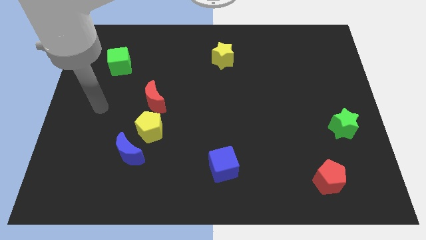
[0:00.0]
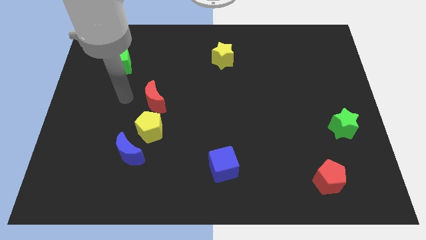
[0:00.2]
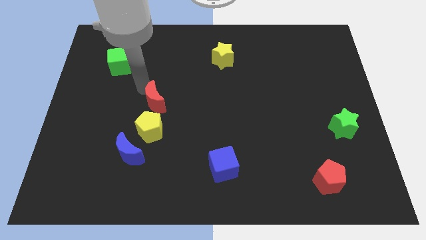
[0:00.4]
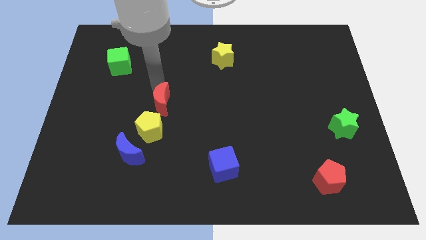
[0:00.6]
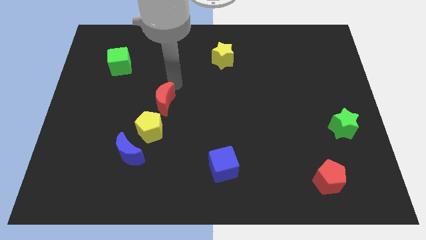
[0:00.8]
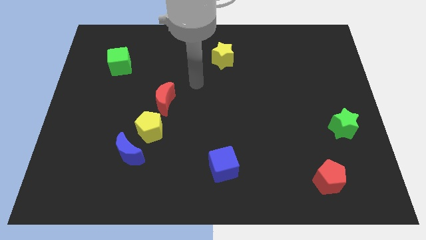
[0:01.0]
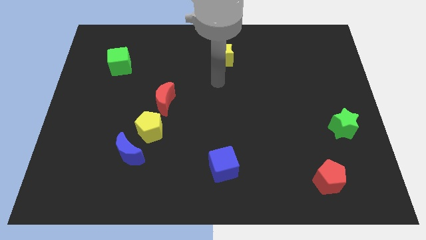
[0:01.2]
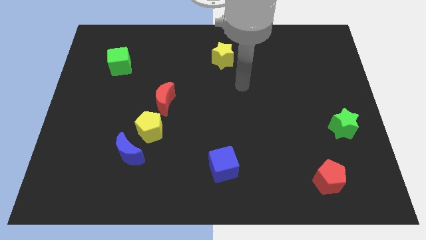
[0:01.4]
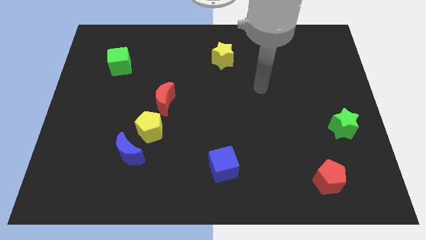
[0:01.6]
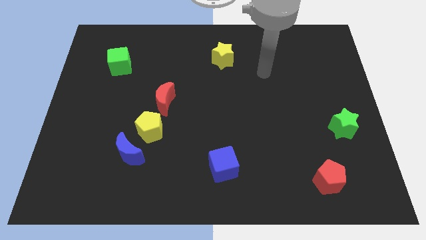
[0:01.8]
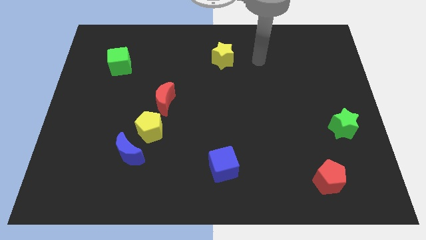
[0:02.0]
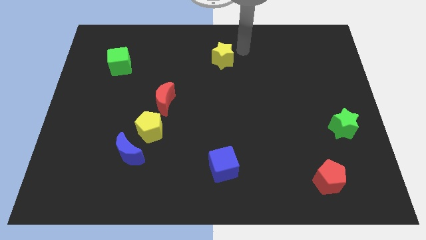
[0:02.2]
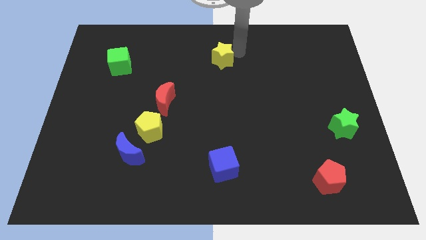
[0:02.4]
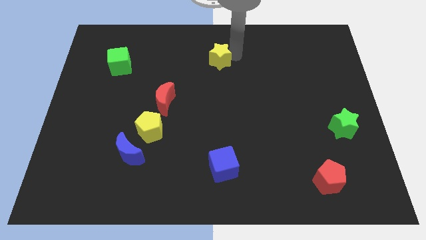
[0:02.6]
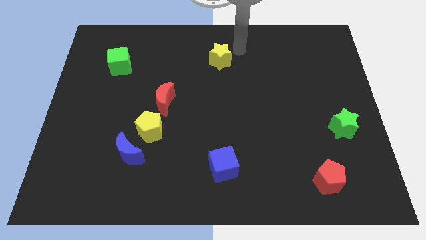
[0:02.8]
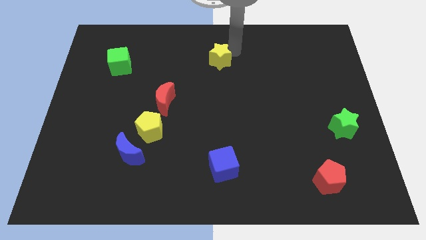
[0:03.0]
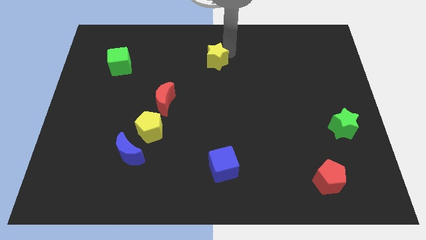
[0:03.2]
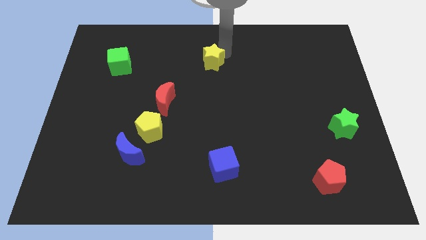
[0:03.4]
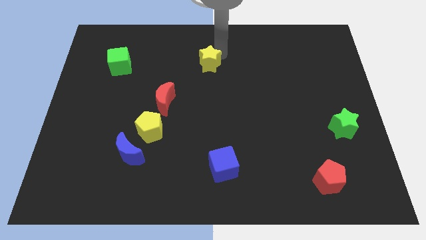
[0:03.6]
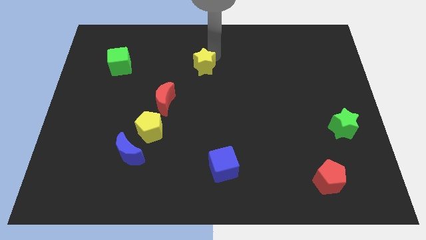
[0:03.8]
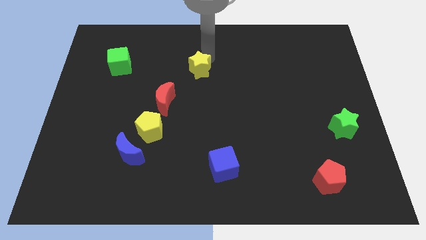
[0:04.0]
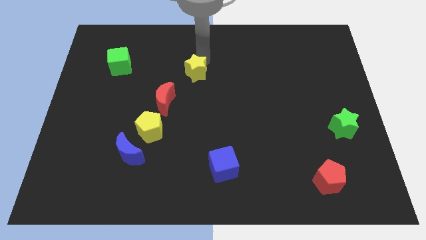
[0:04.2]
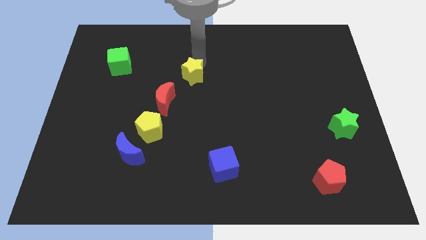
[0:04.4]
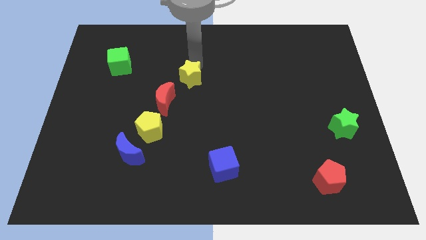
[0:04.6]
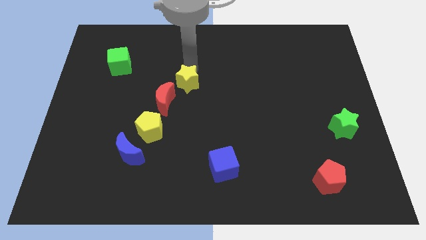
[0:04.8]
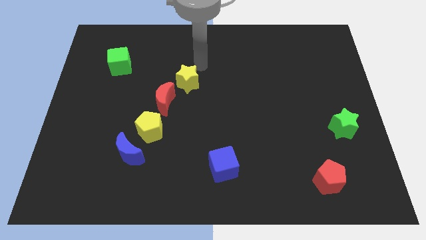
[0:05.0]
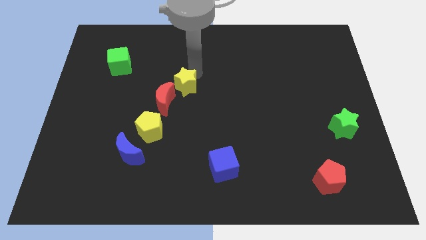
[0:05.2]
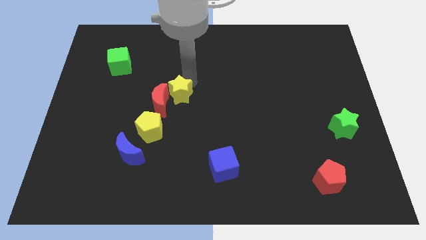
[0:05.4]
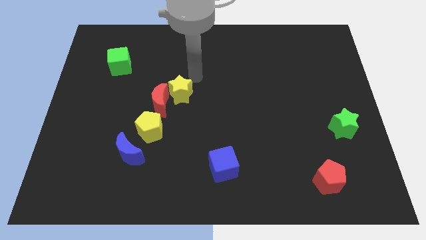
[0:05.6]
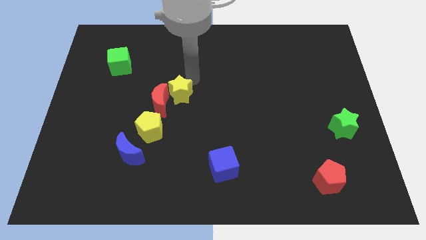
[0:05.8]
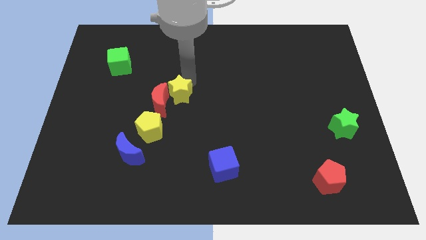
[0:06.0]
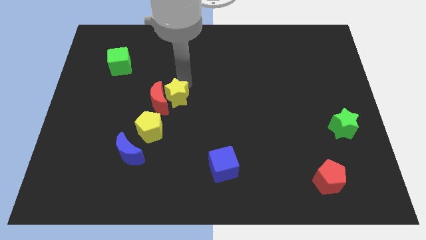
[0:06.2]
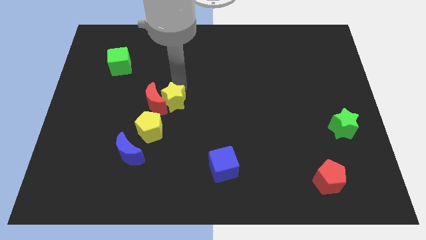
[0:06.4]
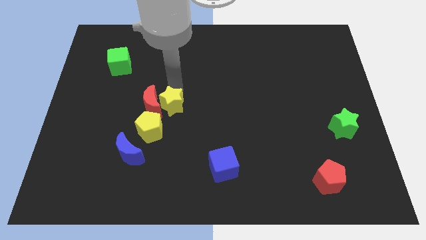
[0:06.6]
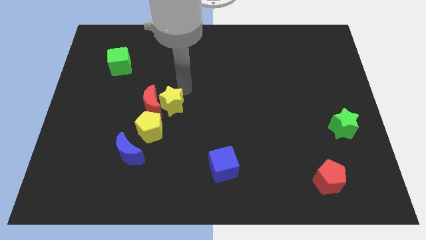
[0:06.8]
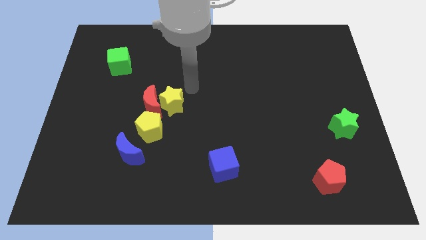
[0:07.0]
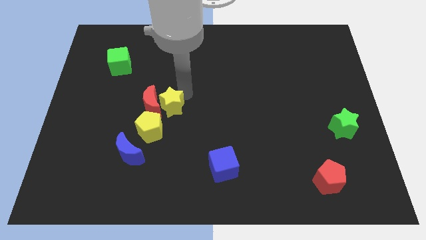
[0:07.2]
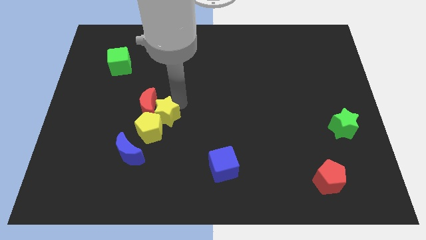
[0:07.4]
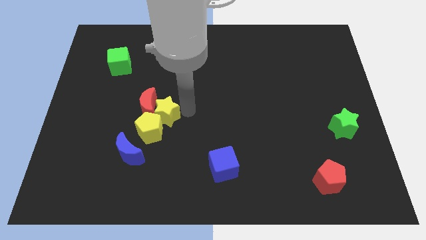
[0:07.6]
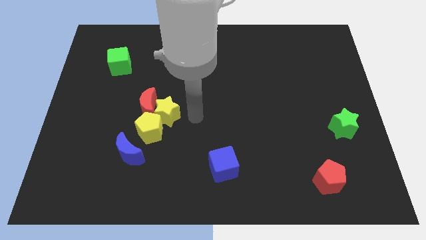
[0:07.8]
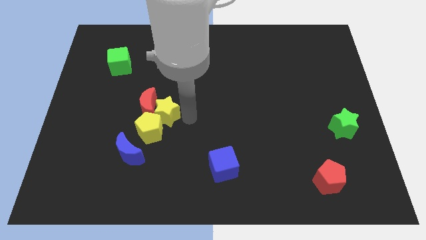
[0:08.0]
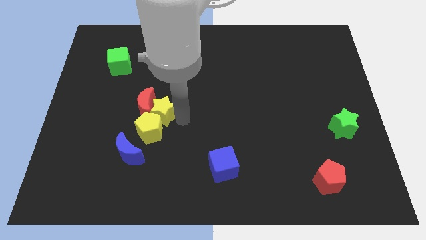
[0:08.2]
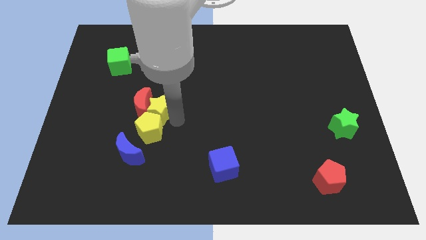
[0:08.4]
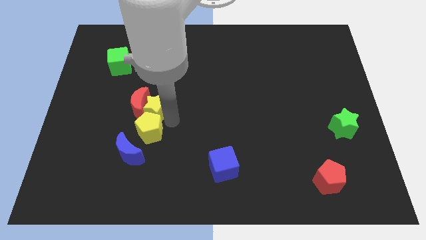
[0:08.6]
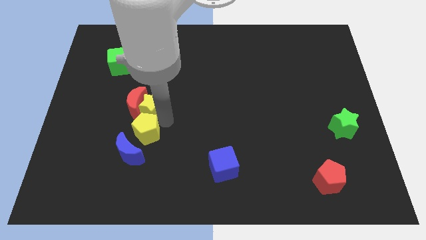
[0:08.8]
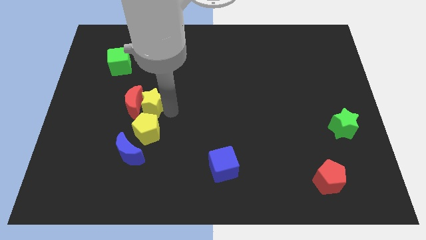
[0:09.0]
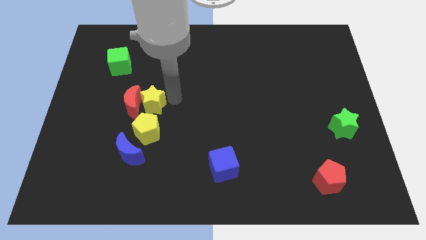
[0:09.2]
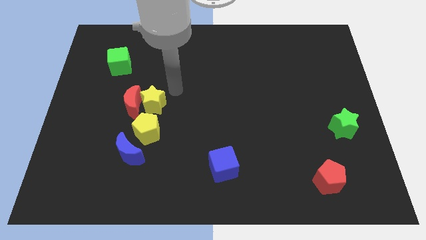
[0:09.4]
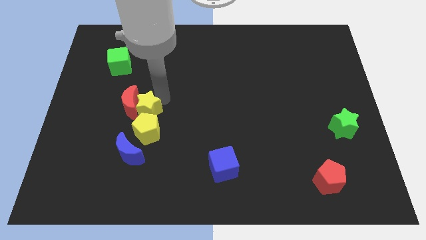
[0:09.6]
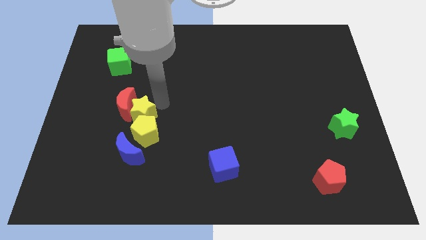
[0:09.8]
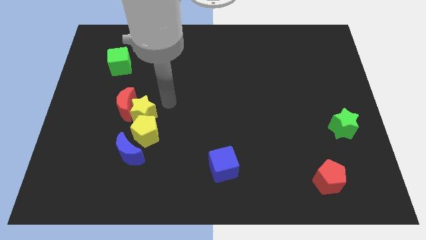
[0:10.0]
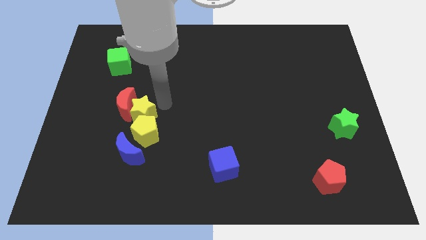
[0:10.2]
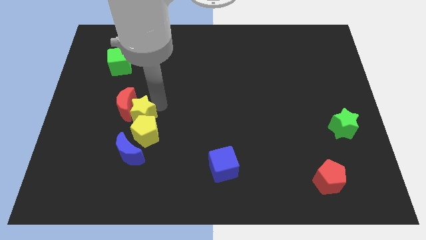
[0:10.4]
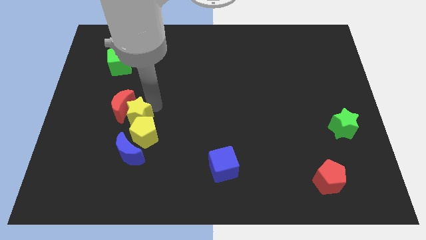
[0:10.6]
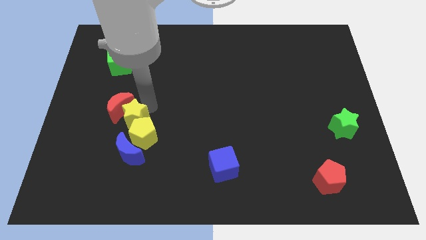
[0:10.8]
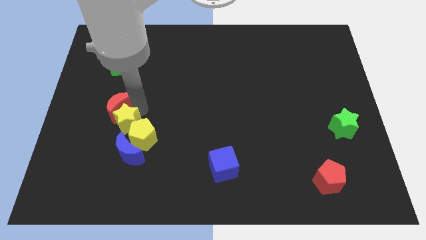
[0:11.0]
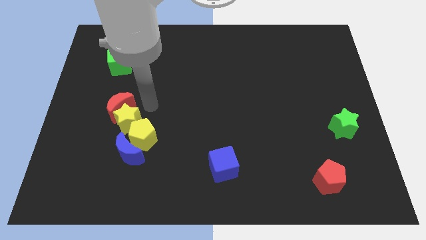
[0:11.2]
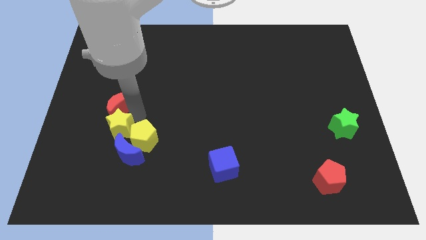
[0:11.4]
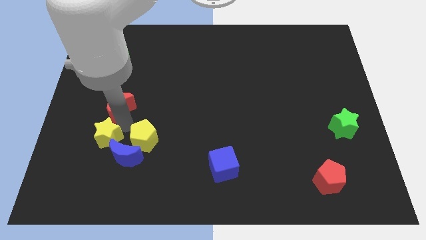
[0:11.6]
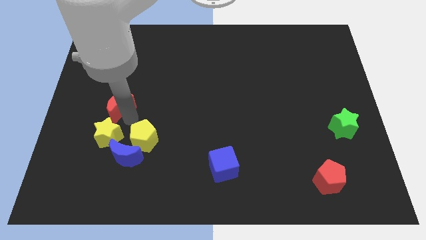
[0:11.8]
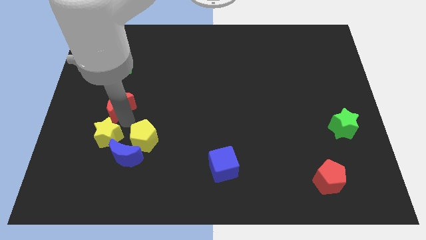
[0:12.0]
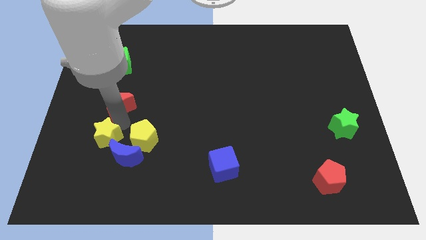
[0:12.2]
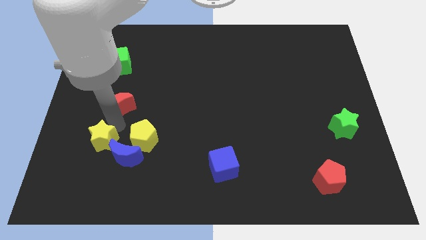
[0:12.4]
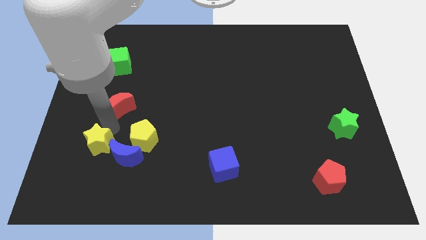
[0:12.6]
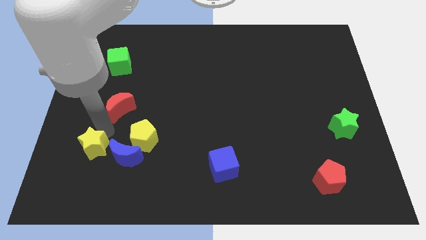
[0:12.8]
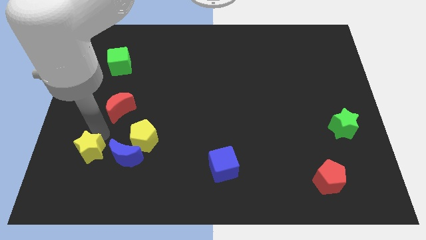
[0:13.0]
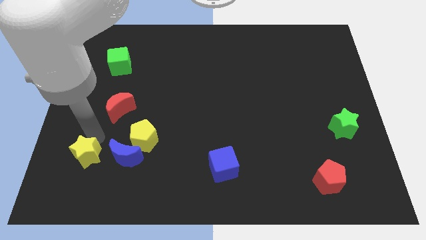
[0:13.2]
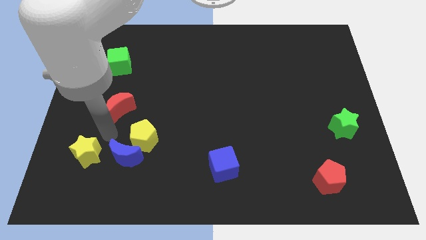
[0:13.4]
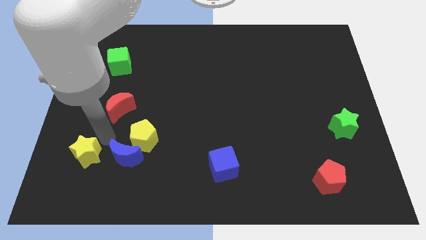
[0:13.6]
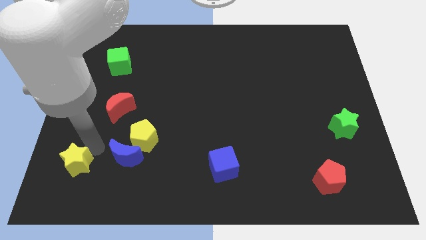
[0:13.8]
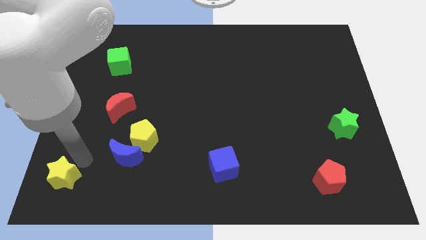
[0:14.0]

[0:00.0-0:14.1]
put the yellow star to the lower left corner

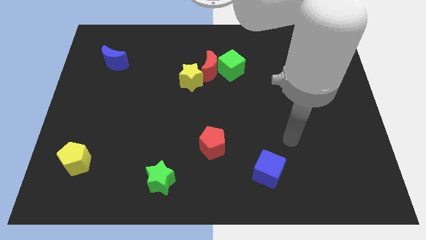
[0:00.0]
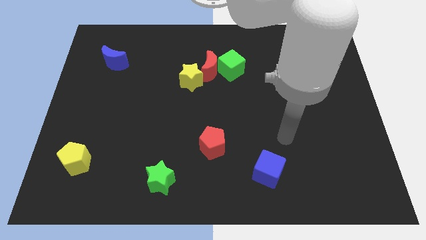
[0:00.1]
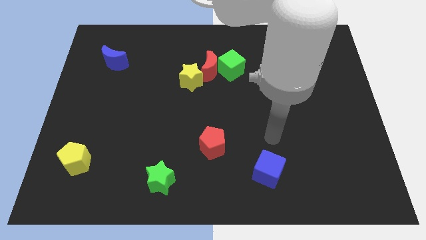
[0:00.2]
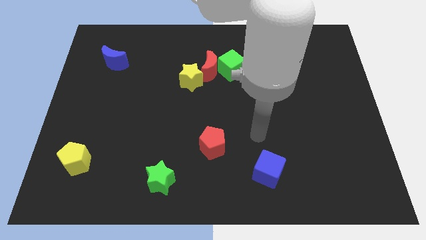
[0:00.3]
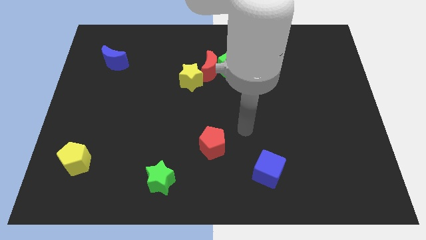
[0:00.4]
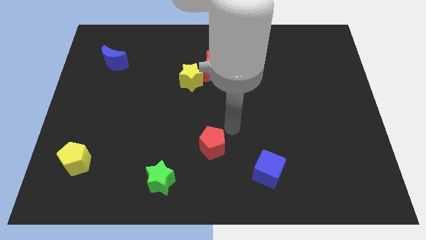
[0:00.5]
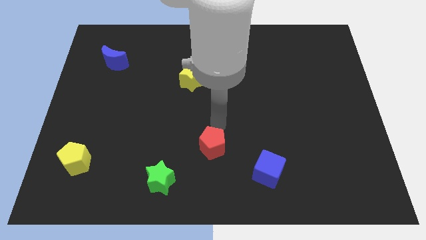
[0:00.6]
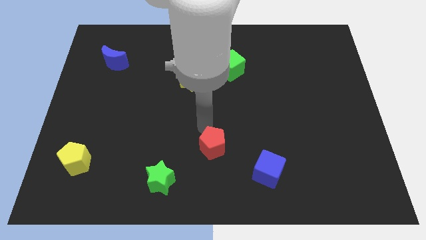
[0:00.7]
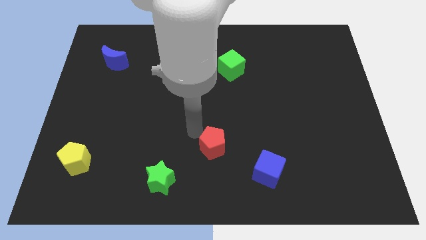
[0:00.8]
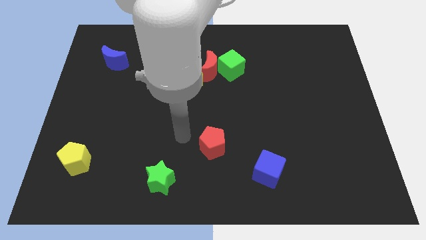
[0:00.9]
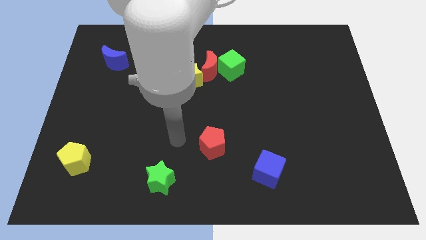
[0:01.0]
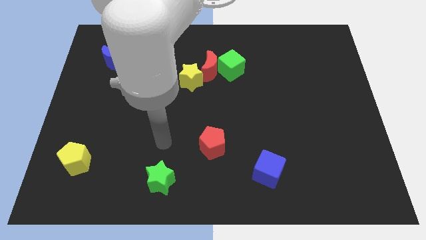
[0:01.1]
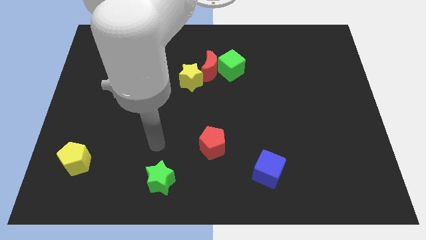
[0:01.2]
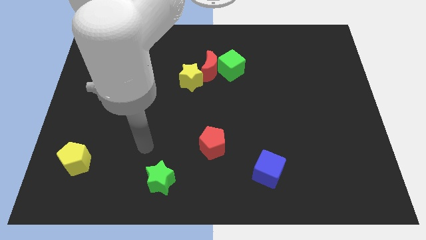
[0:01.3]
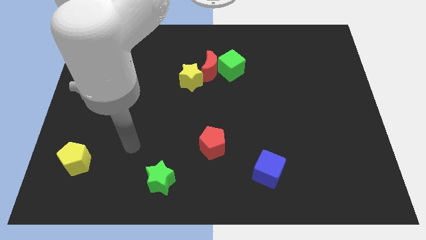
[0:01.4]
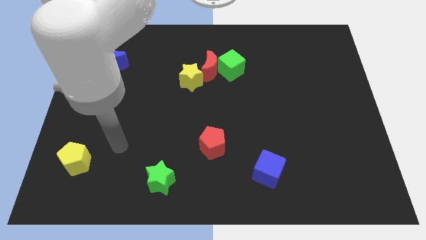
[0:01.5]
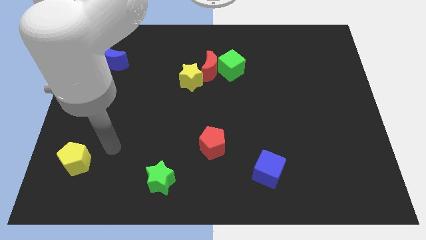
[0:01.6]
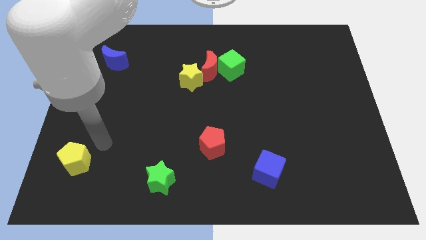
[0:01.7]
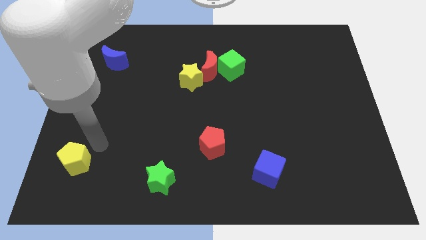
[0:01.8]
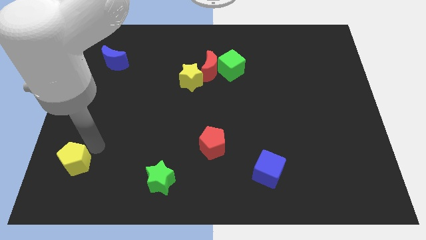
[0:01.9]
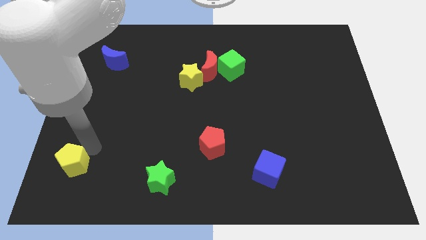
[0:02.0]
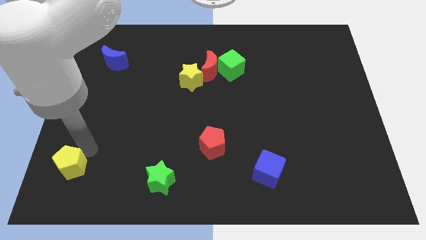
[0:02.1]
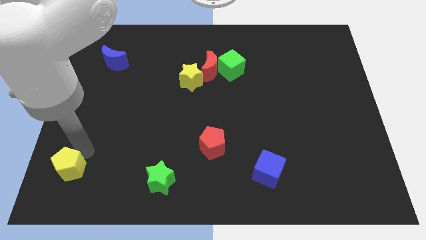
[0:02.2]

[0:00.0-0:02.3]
put the yellow pentagon to the bottom left
